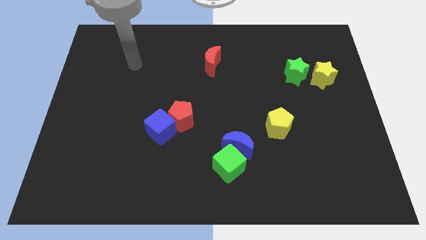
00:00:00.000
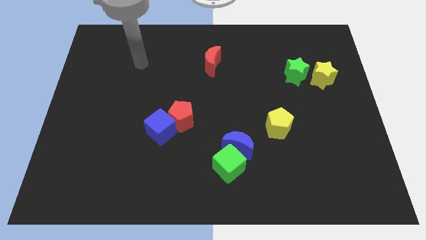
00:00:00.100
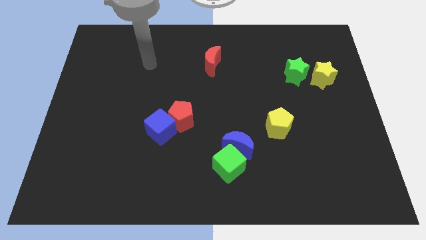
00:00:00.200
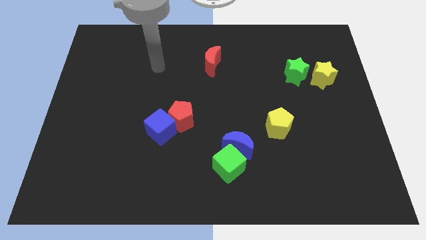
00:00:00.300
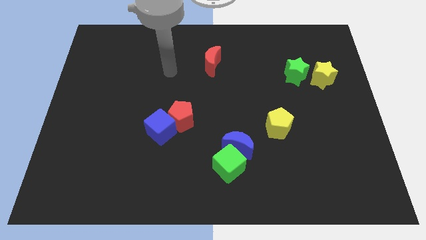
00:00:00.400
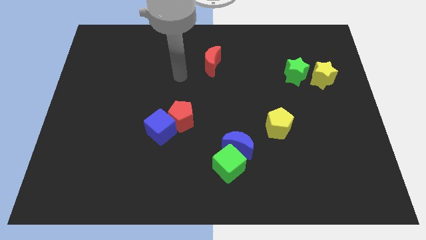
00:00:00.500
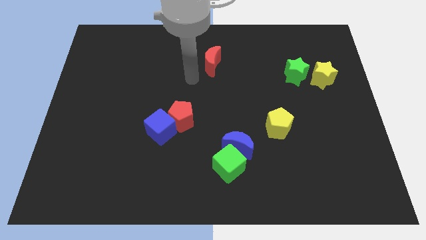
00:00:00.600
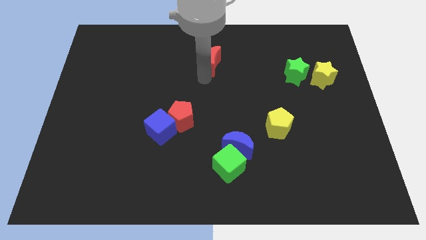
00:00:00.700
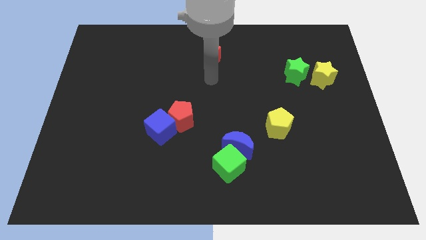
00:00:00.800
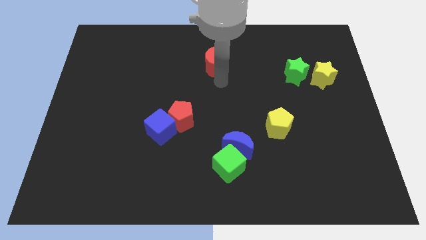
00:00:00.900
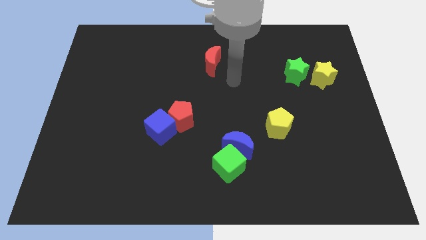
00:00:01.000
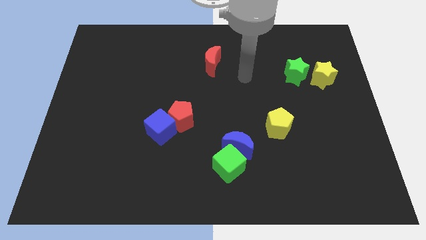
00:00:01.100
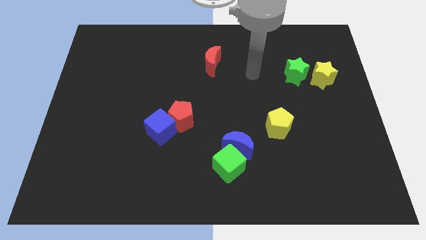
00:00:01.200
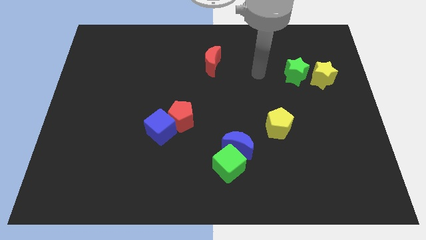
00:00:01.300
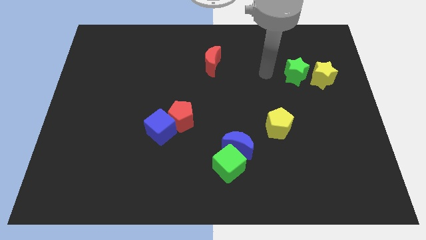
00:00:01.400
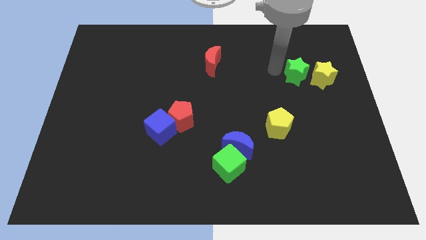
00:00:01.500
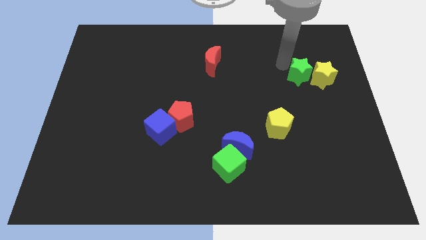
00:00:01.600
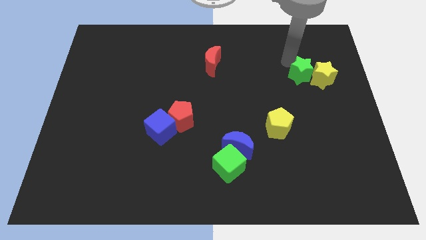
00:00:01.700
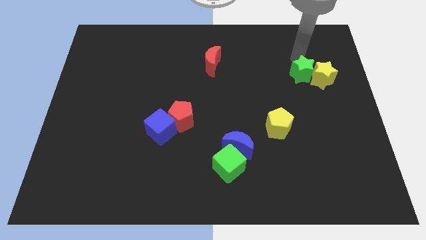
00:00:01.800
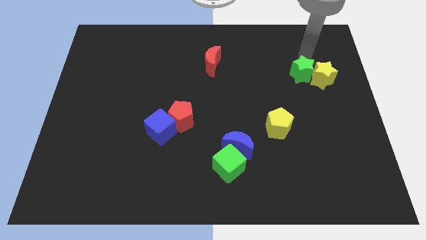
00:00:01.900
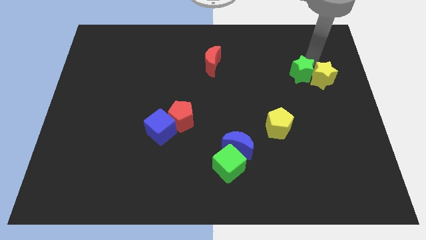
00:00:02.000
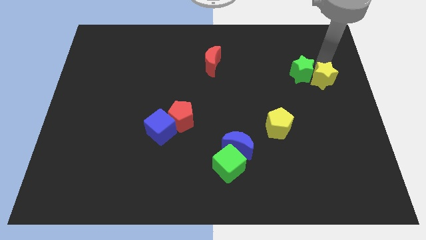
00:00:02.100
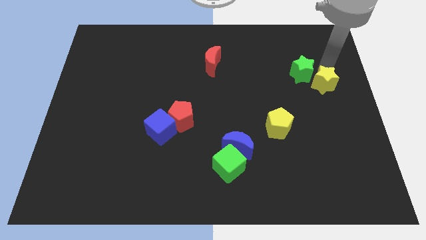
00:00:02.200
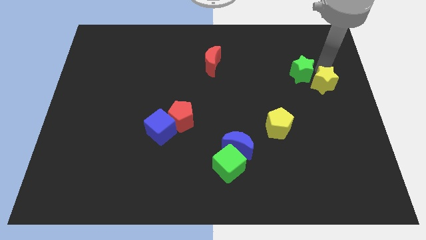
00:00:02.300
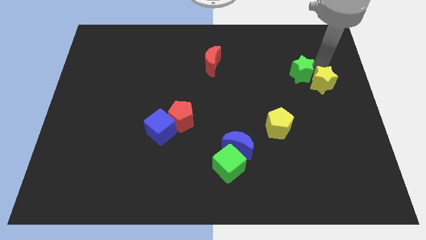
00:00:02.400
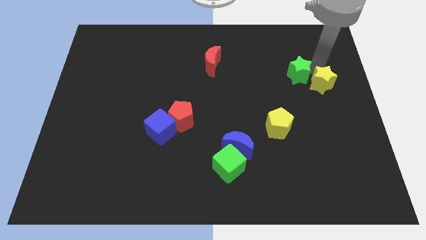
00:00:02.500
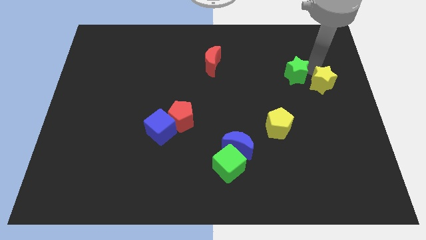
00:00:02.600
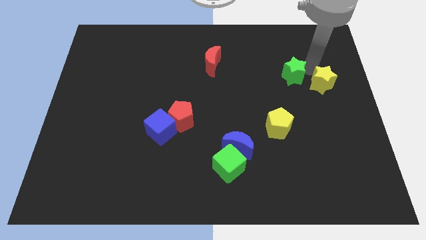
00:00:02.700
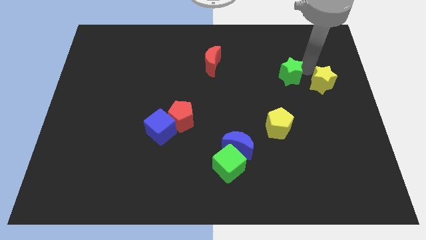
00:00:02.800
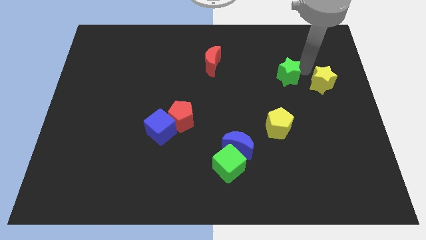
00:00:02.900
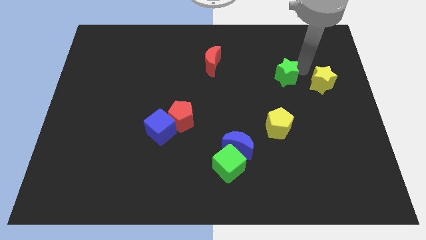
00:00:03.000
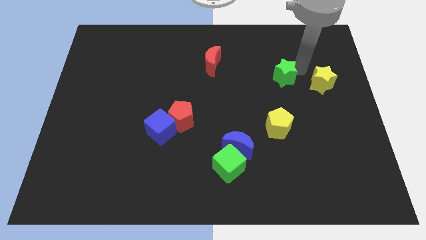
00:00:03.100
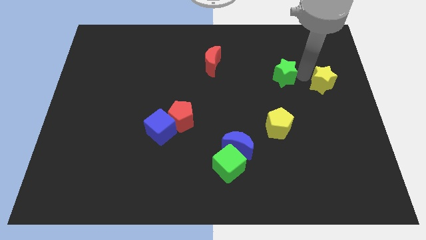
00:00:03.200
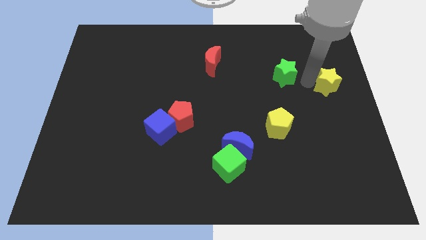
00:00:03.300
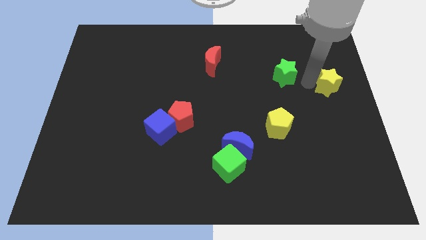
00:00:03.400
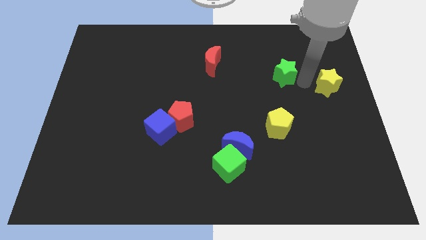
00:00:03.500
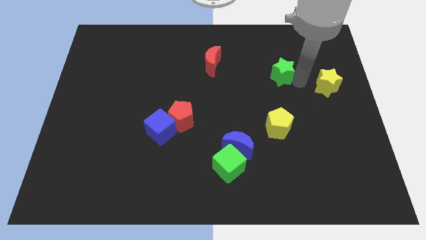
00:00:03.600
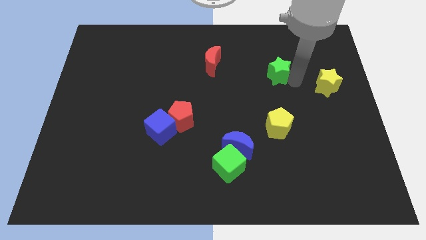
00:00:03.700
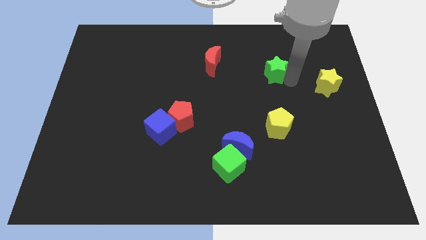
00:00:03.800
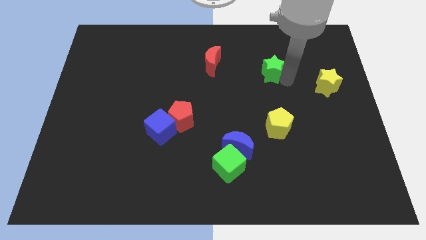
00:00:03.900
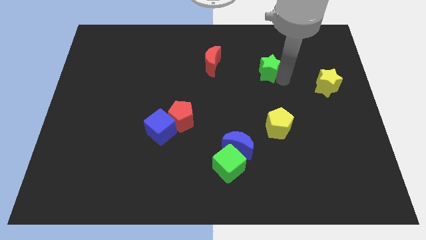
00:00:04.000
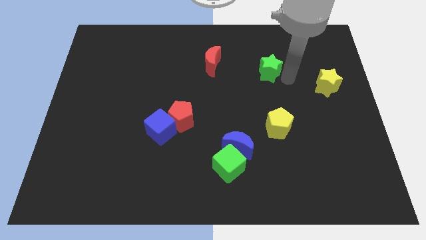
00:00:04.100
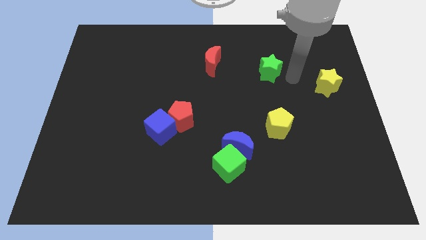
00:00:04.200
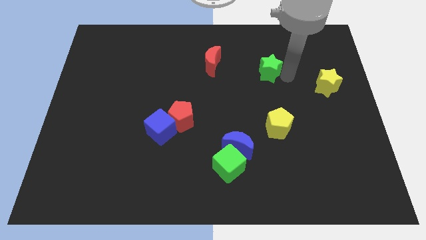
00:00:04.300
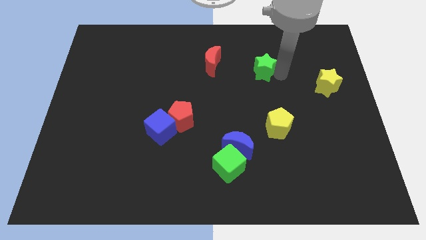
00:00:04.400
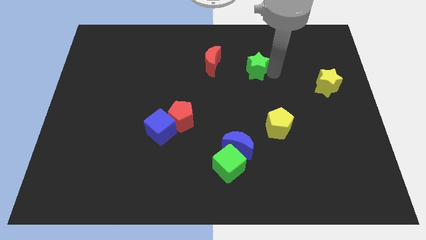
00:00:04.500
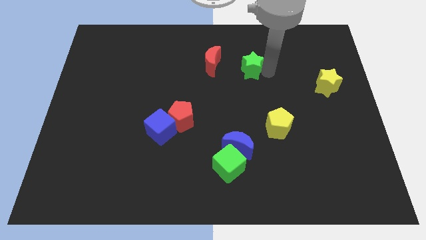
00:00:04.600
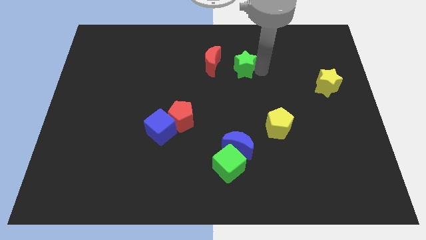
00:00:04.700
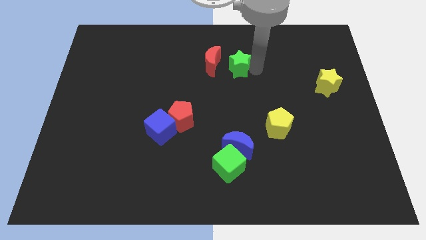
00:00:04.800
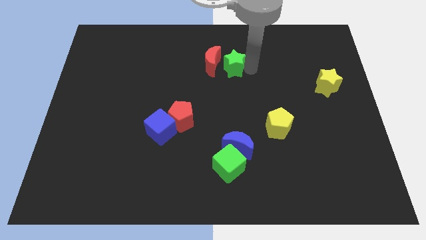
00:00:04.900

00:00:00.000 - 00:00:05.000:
move the green star towards the red moon

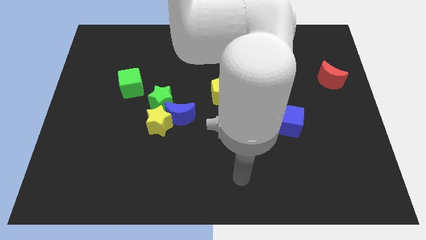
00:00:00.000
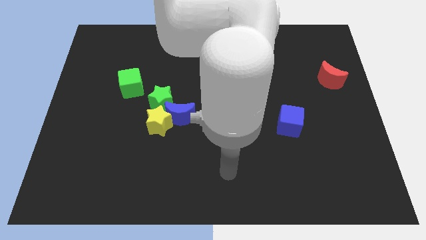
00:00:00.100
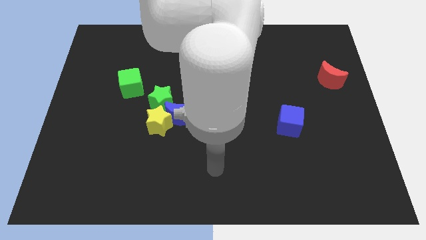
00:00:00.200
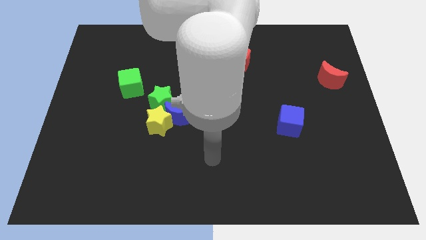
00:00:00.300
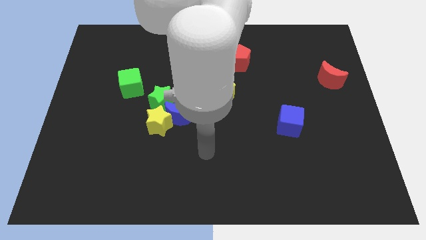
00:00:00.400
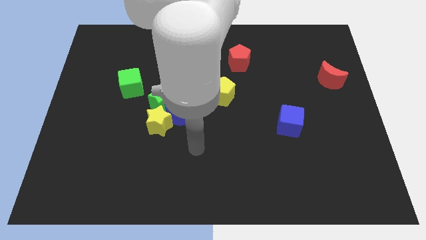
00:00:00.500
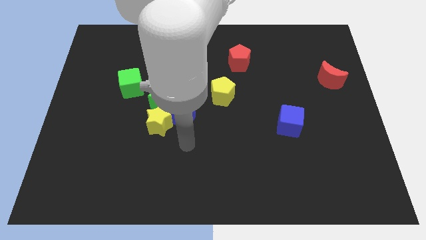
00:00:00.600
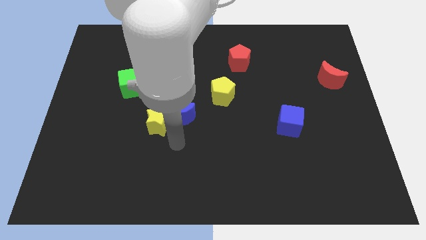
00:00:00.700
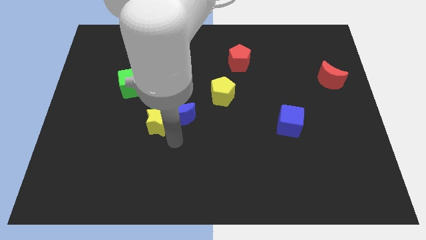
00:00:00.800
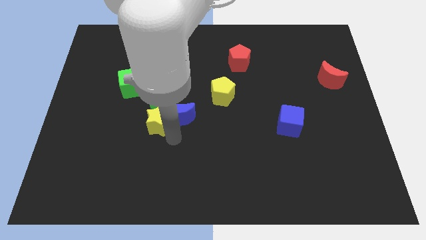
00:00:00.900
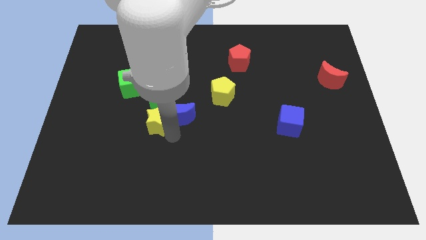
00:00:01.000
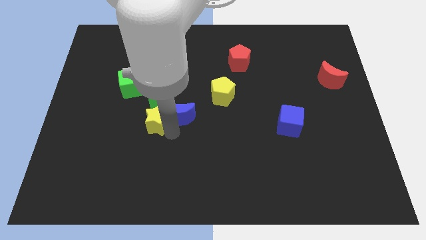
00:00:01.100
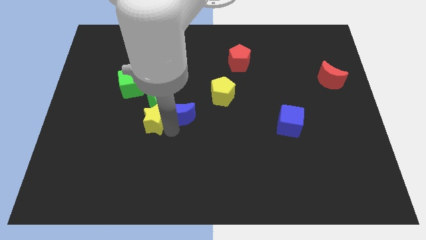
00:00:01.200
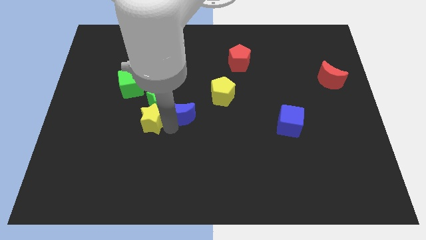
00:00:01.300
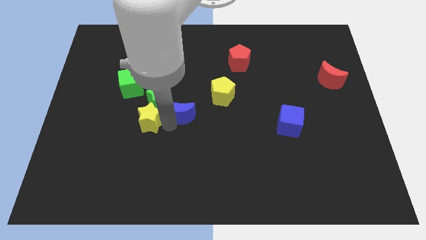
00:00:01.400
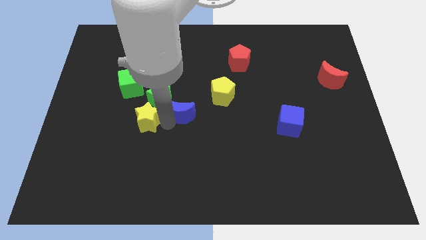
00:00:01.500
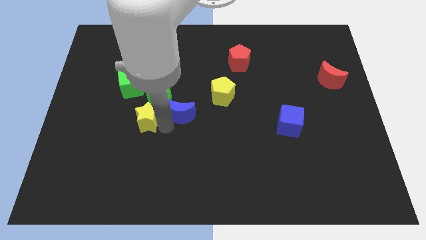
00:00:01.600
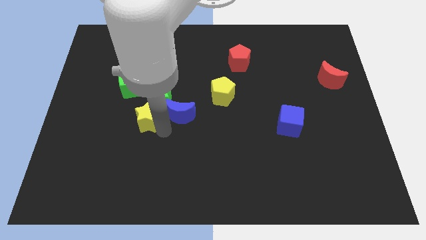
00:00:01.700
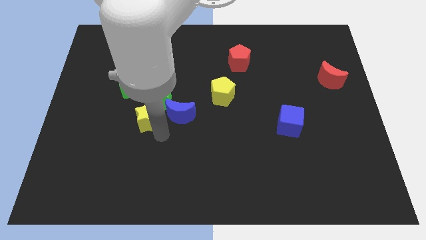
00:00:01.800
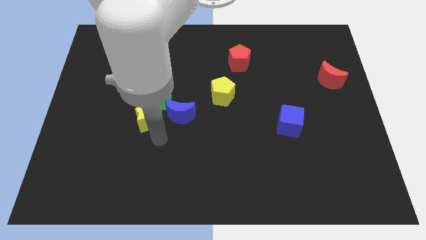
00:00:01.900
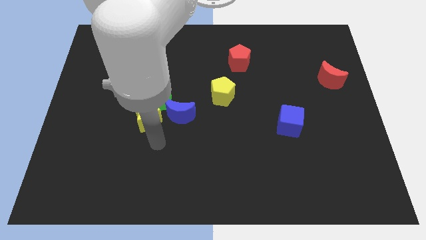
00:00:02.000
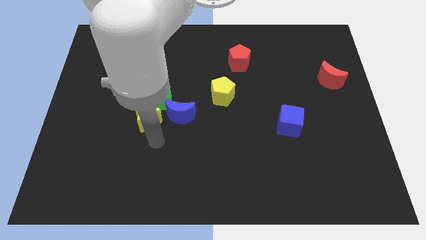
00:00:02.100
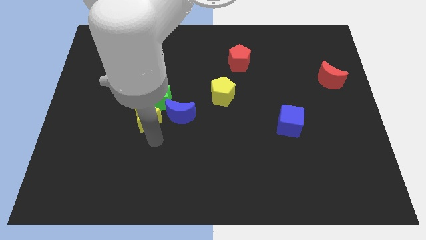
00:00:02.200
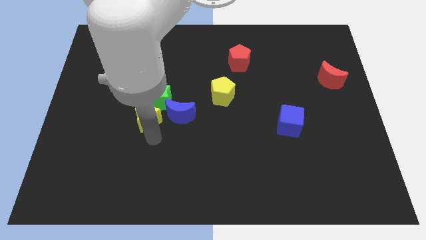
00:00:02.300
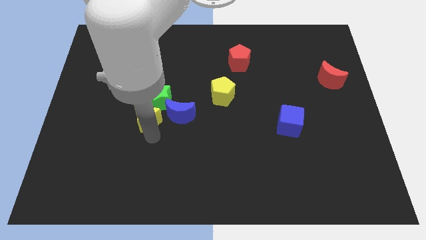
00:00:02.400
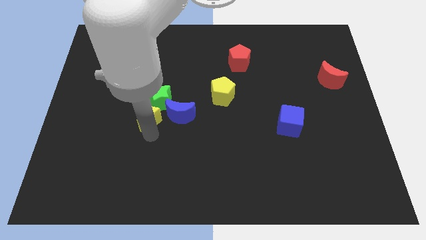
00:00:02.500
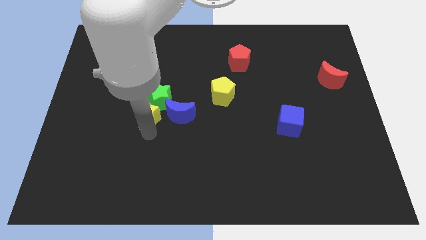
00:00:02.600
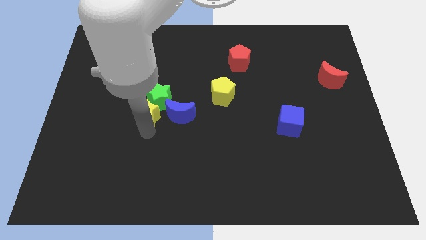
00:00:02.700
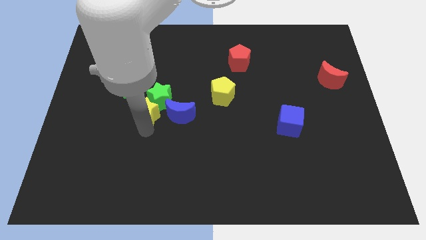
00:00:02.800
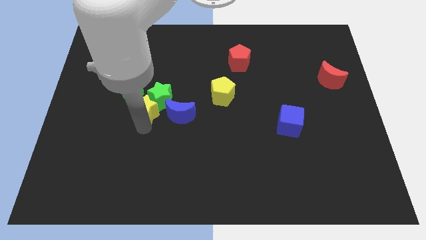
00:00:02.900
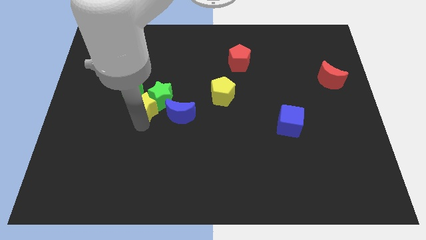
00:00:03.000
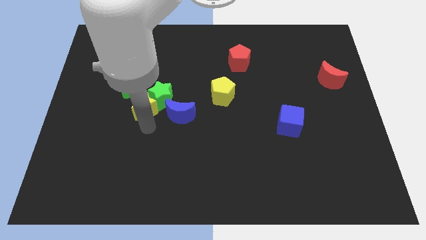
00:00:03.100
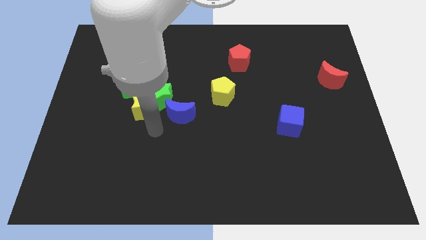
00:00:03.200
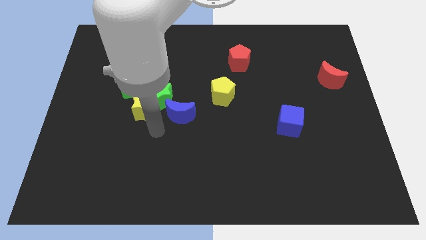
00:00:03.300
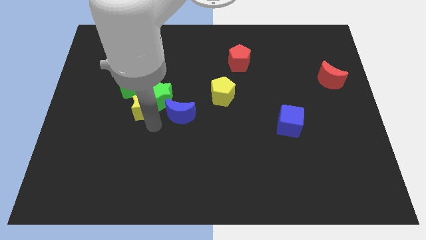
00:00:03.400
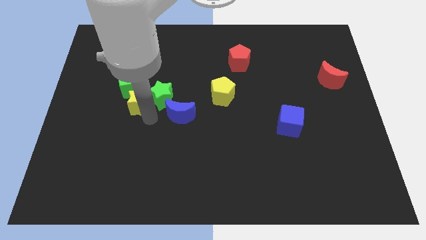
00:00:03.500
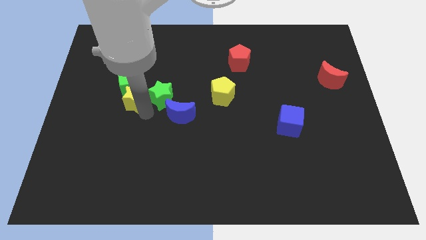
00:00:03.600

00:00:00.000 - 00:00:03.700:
push the yellow star to the green cube
